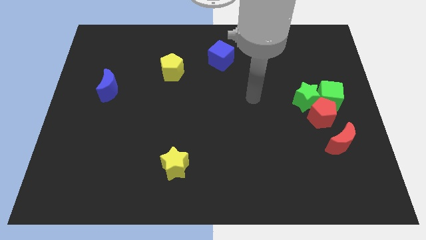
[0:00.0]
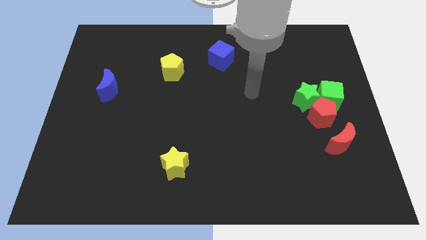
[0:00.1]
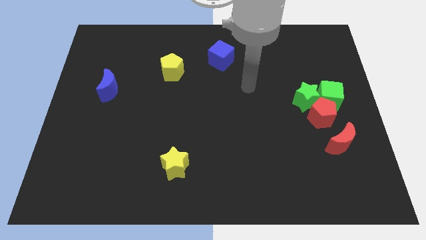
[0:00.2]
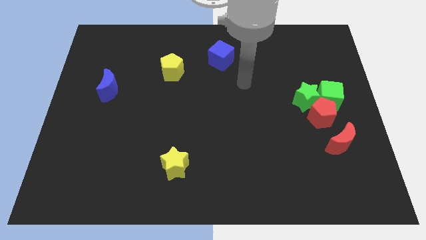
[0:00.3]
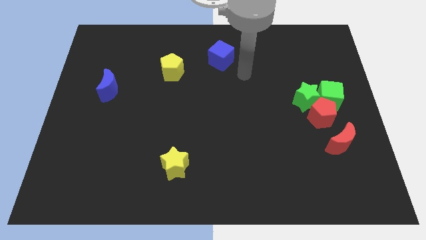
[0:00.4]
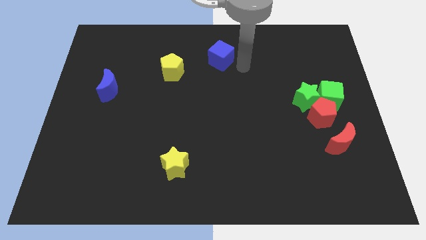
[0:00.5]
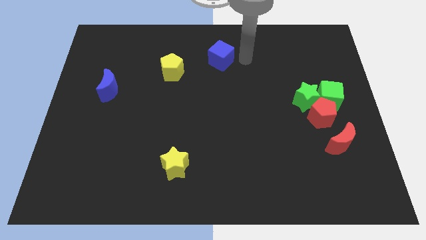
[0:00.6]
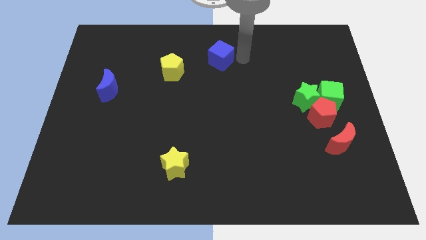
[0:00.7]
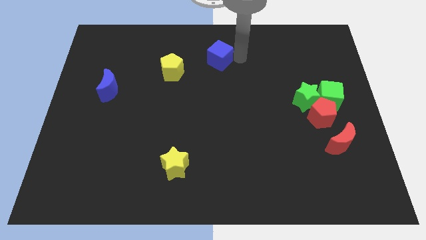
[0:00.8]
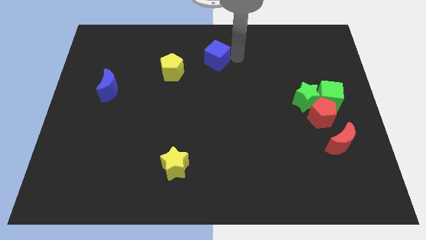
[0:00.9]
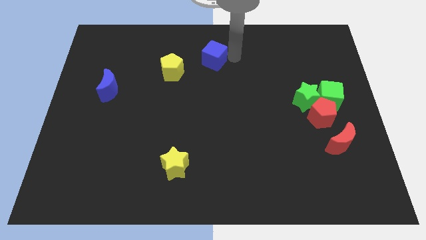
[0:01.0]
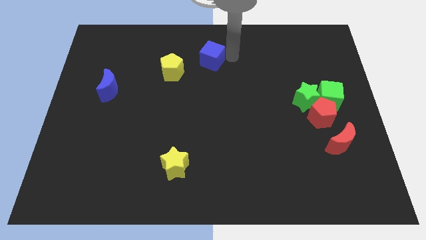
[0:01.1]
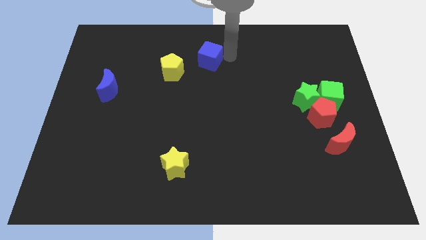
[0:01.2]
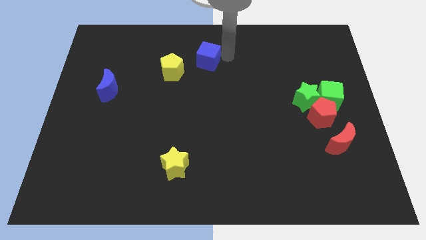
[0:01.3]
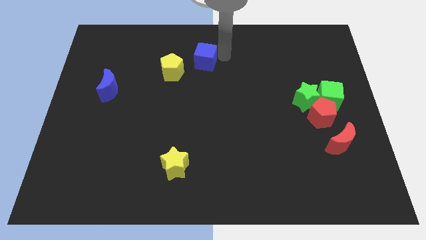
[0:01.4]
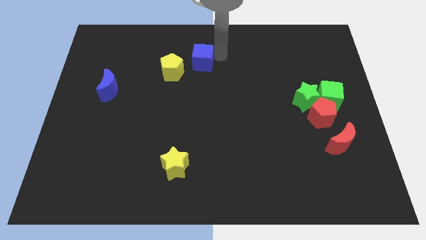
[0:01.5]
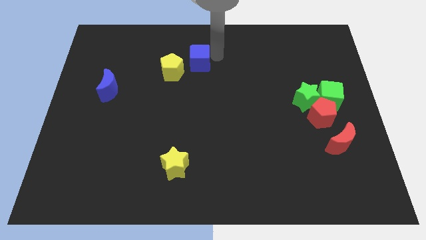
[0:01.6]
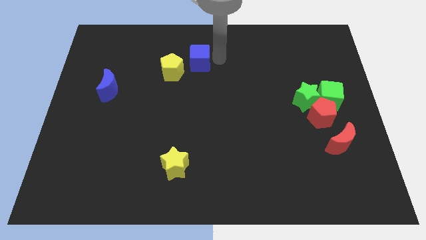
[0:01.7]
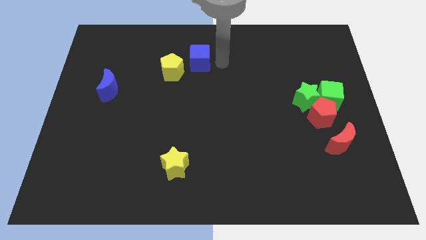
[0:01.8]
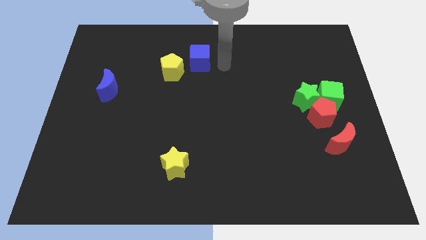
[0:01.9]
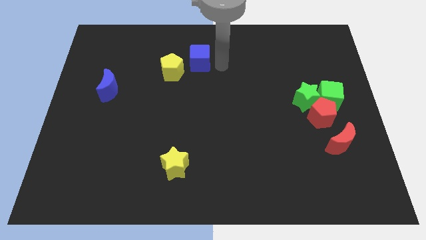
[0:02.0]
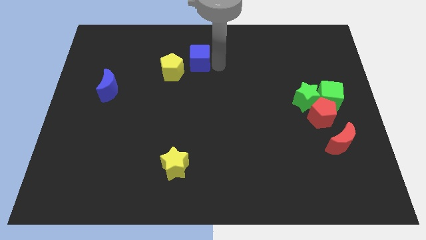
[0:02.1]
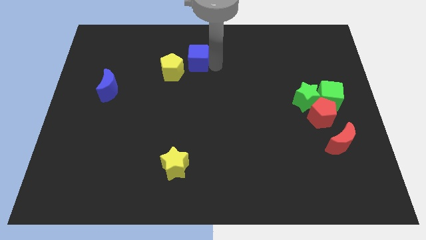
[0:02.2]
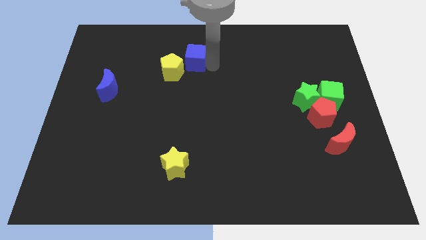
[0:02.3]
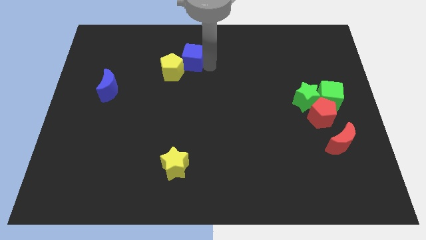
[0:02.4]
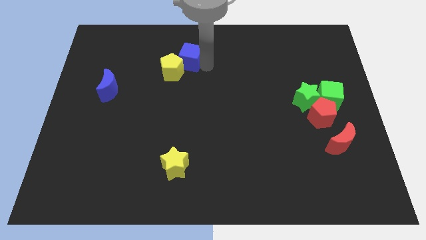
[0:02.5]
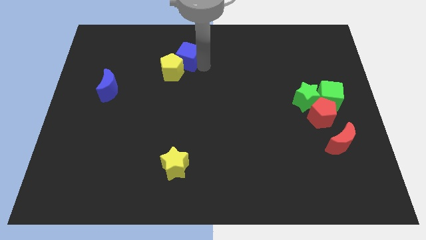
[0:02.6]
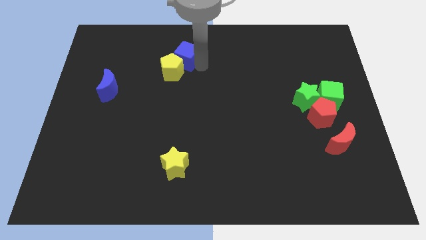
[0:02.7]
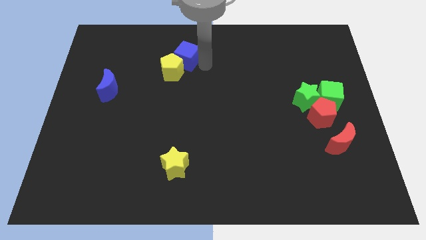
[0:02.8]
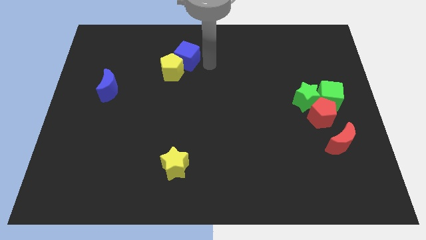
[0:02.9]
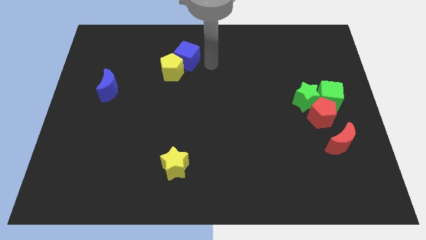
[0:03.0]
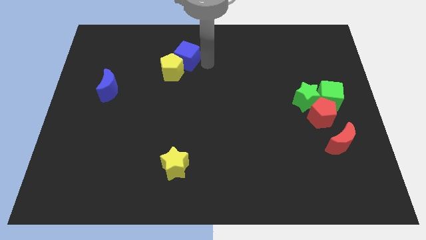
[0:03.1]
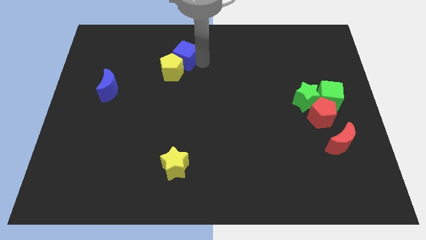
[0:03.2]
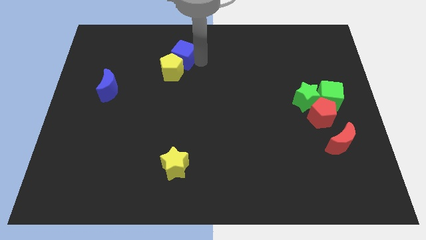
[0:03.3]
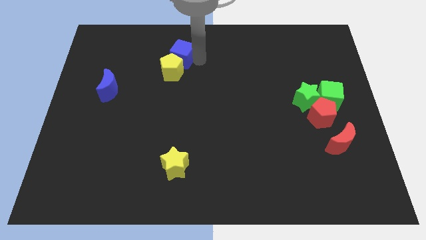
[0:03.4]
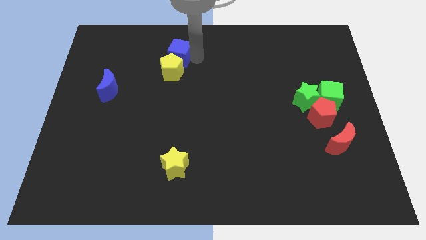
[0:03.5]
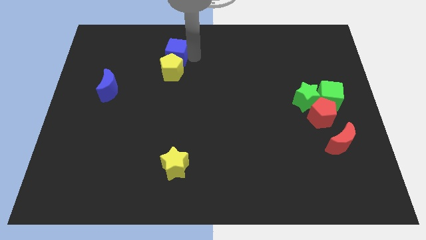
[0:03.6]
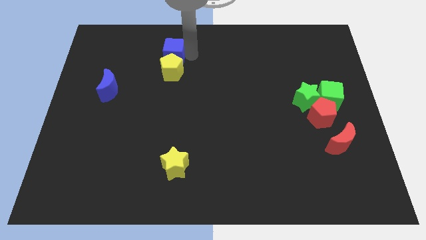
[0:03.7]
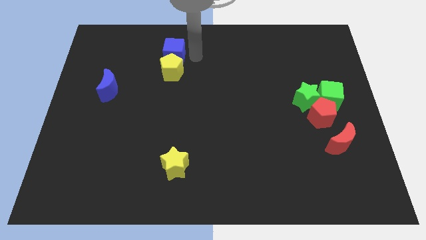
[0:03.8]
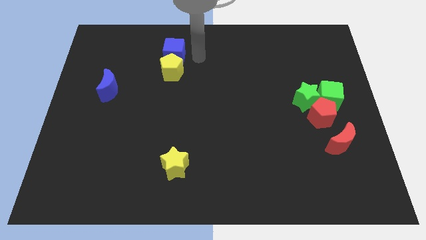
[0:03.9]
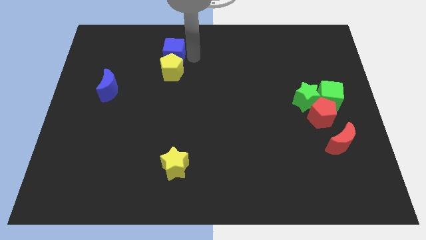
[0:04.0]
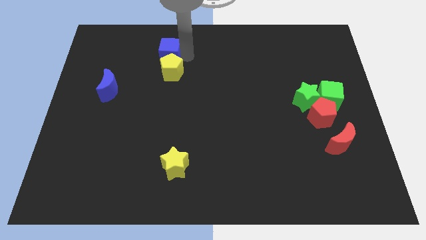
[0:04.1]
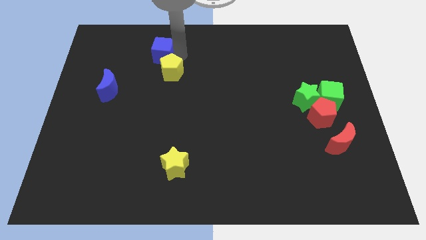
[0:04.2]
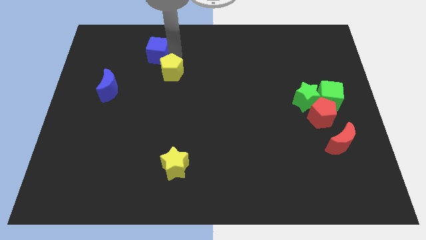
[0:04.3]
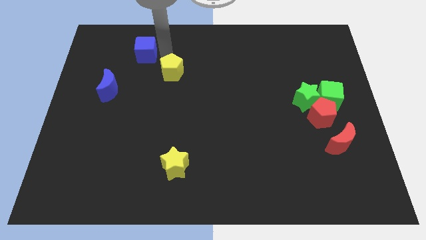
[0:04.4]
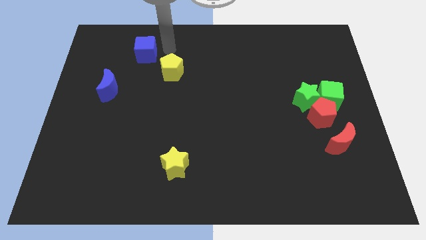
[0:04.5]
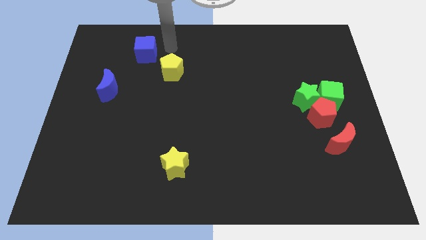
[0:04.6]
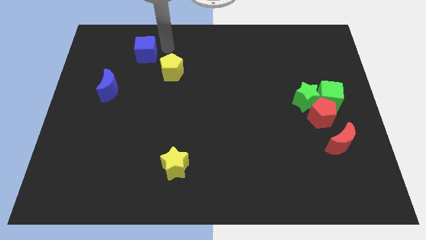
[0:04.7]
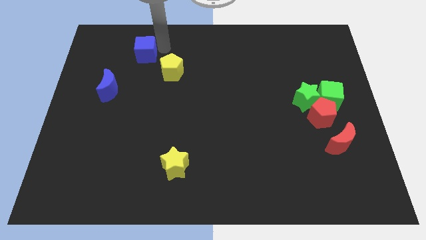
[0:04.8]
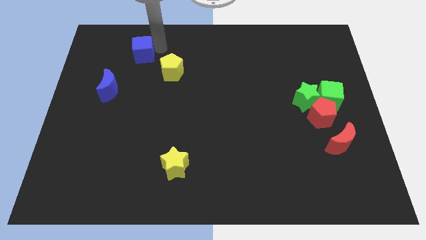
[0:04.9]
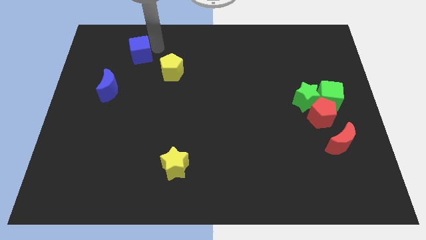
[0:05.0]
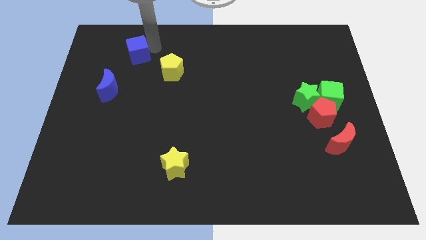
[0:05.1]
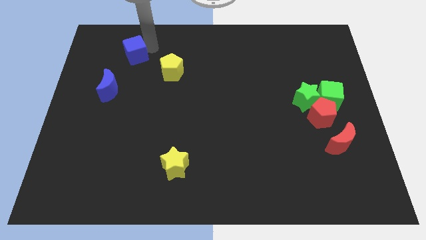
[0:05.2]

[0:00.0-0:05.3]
push the blue cube above the blue moon

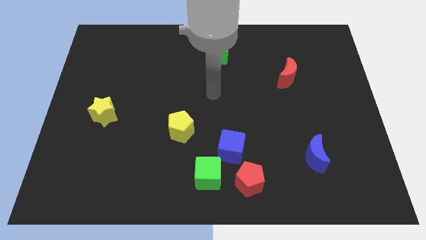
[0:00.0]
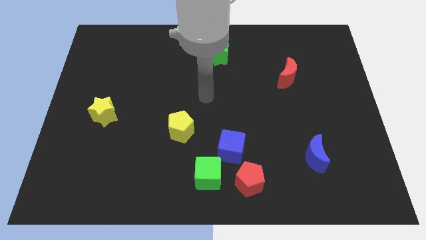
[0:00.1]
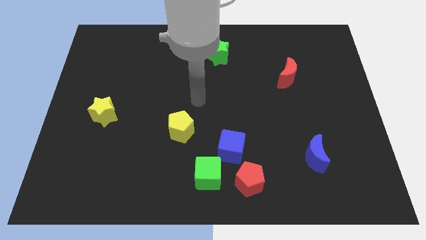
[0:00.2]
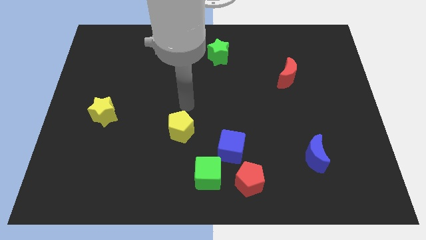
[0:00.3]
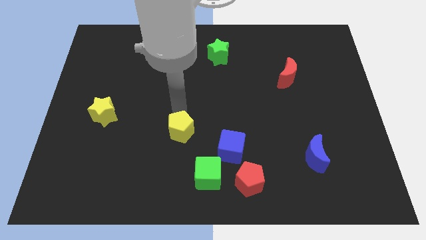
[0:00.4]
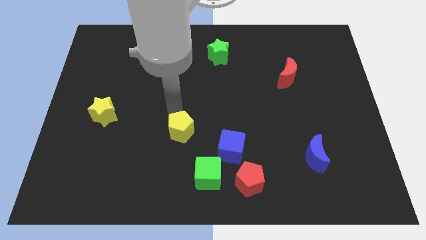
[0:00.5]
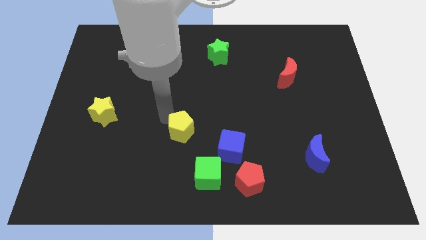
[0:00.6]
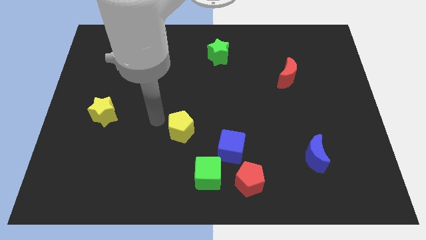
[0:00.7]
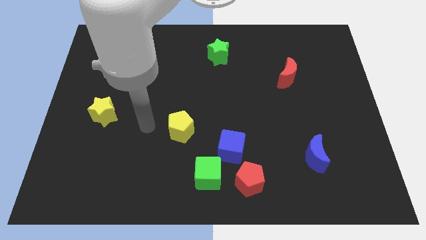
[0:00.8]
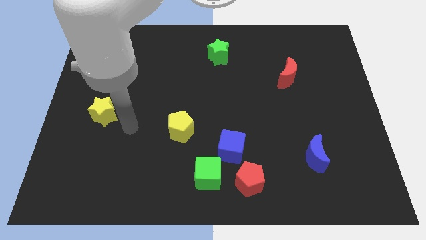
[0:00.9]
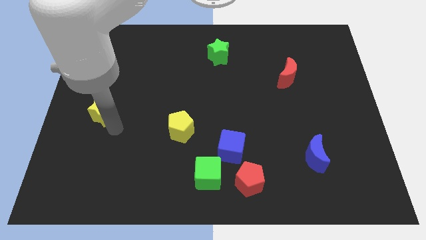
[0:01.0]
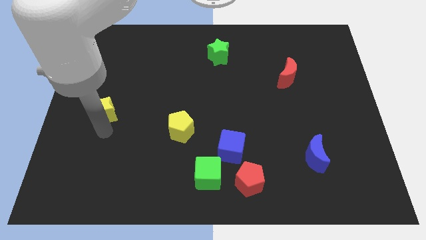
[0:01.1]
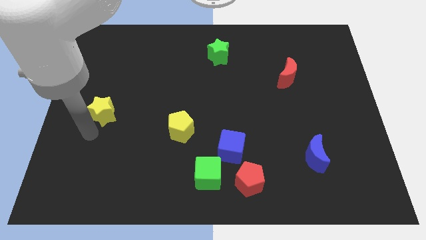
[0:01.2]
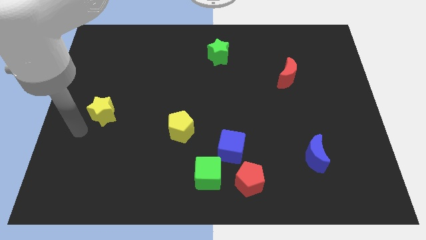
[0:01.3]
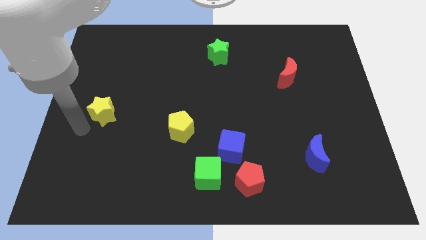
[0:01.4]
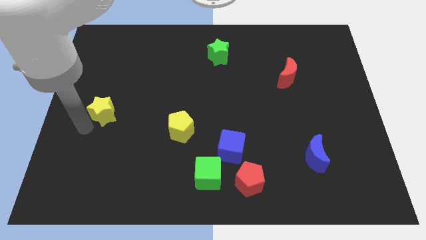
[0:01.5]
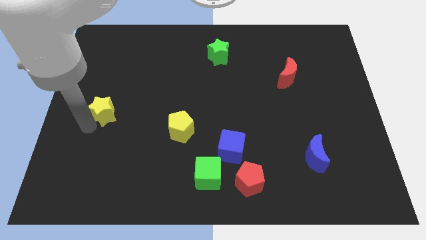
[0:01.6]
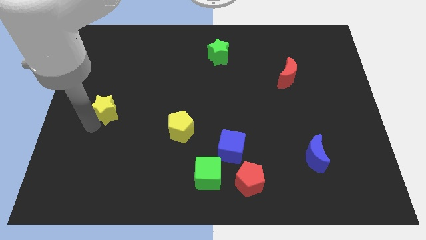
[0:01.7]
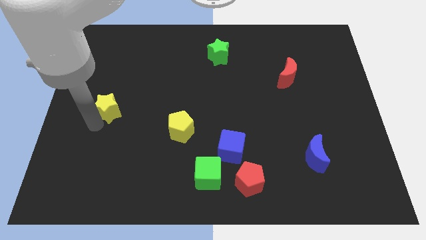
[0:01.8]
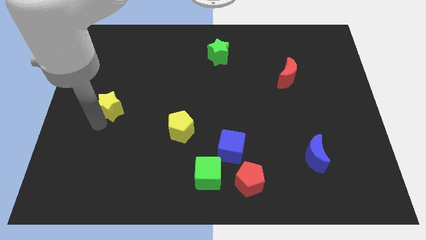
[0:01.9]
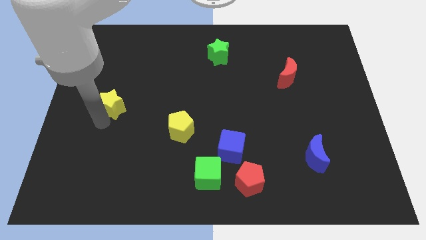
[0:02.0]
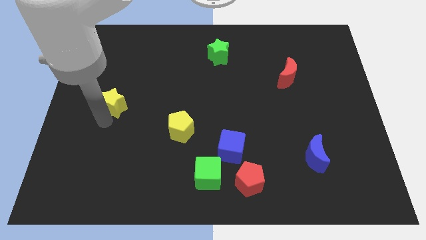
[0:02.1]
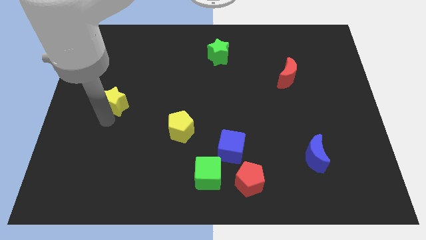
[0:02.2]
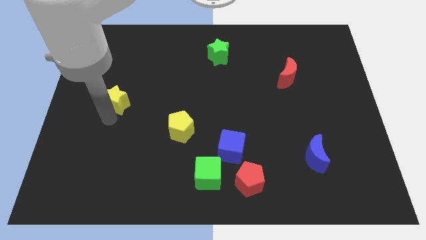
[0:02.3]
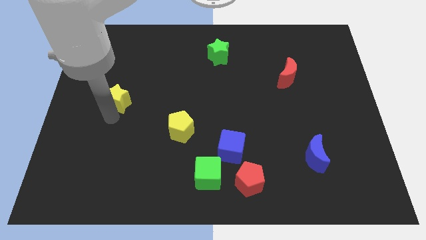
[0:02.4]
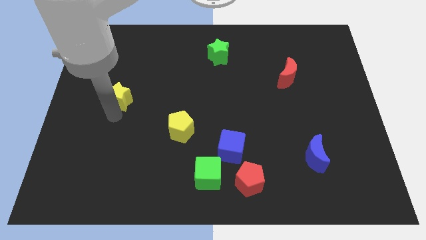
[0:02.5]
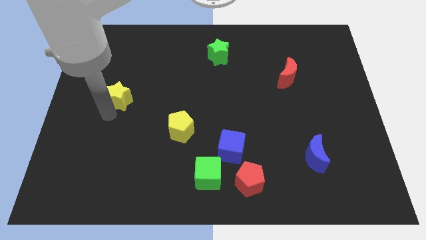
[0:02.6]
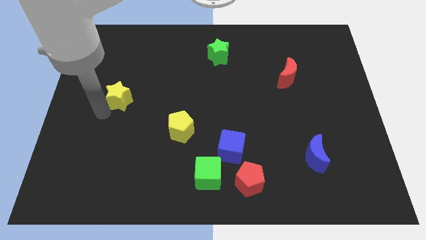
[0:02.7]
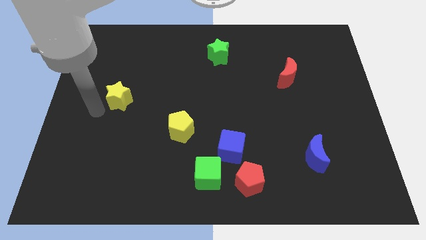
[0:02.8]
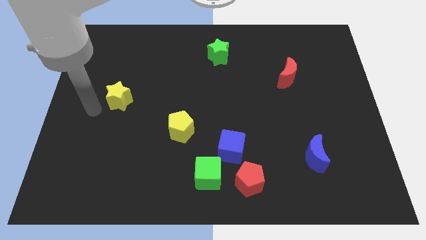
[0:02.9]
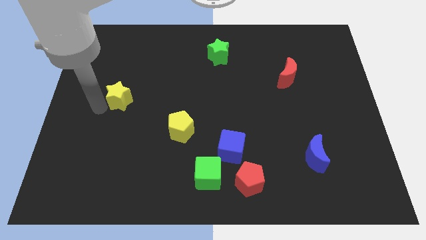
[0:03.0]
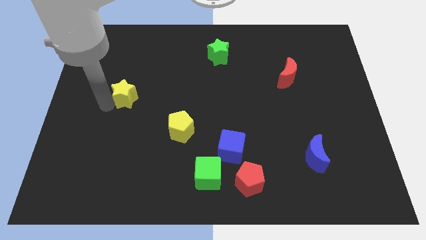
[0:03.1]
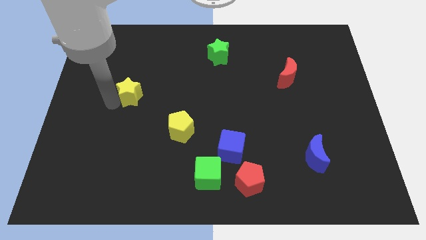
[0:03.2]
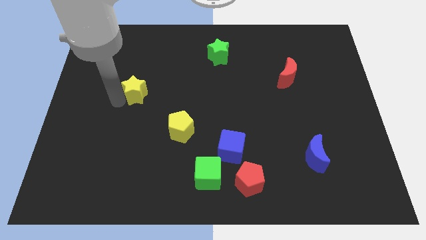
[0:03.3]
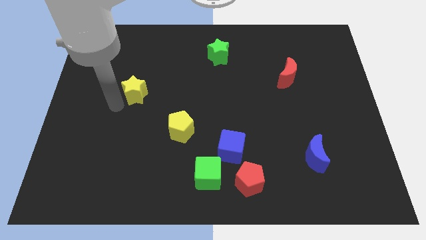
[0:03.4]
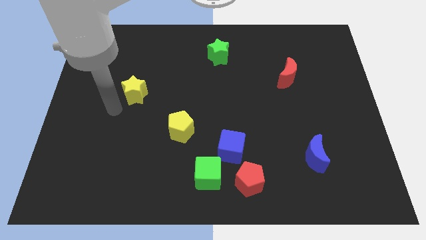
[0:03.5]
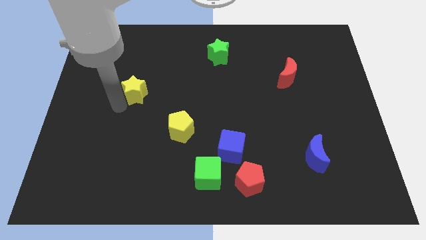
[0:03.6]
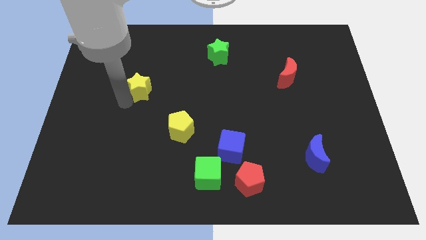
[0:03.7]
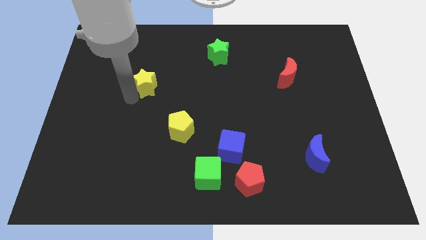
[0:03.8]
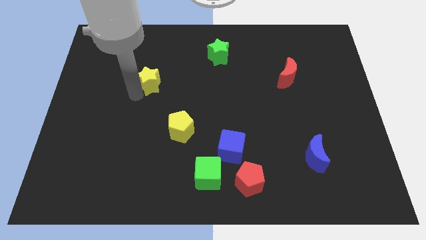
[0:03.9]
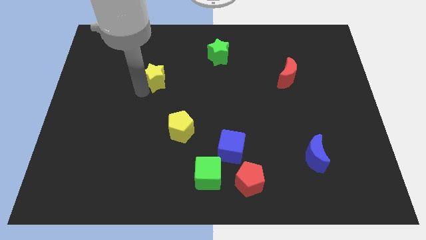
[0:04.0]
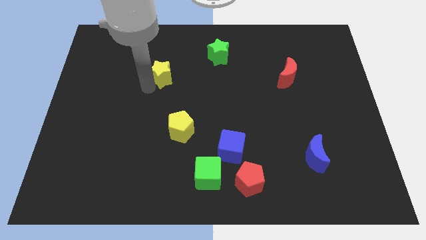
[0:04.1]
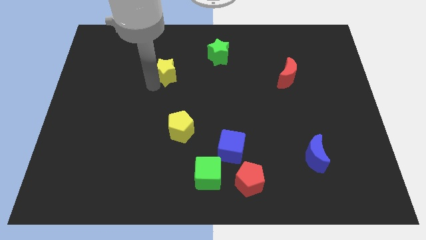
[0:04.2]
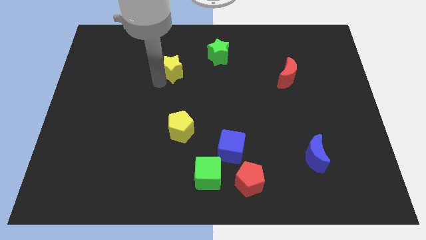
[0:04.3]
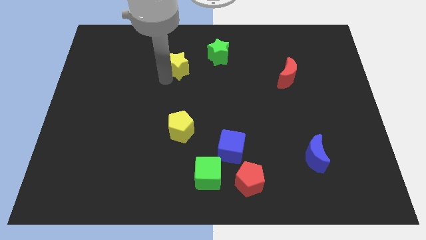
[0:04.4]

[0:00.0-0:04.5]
move the yellow star left of the green star
